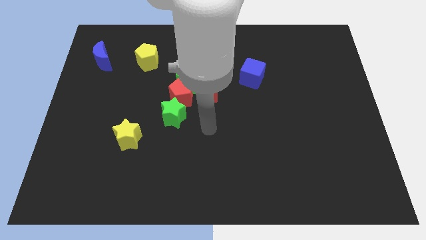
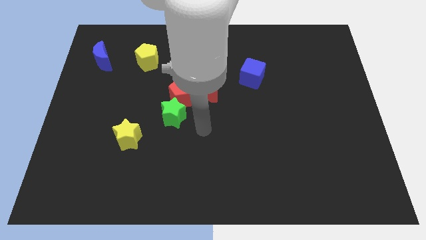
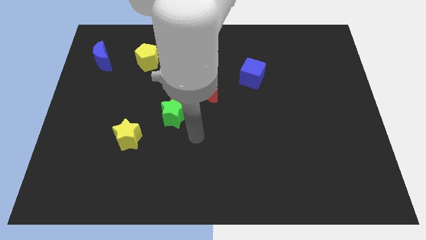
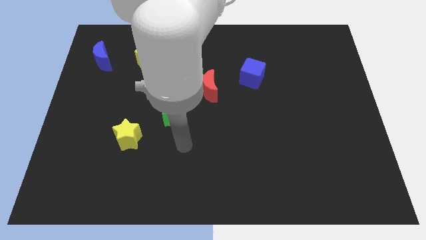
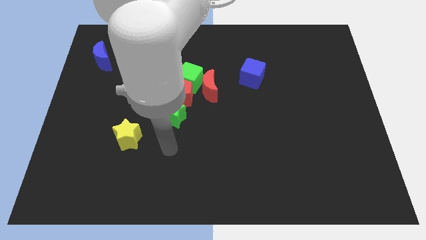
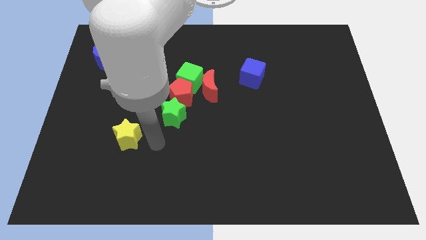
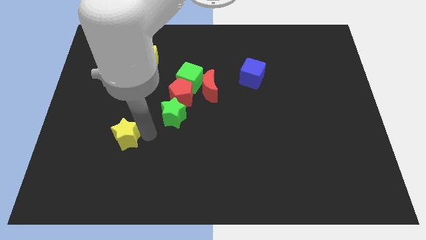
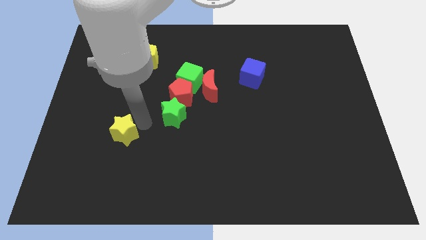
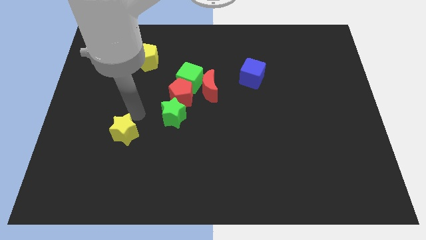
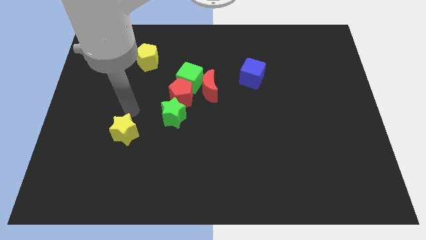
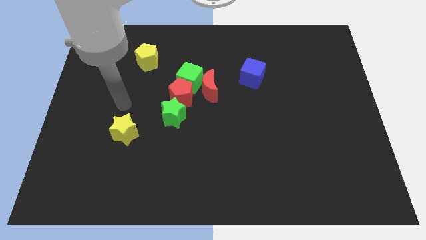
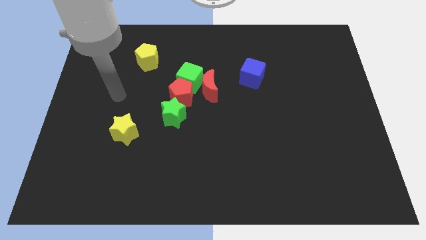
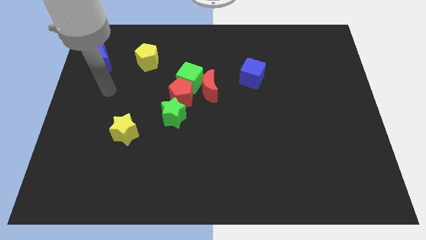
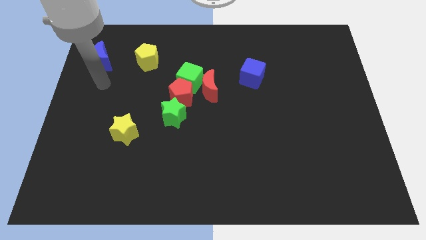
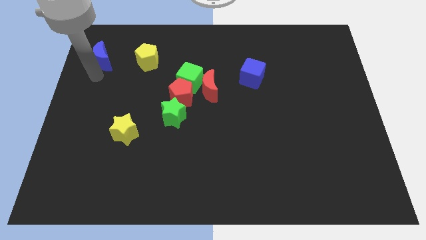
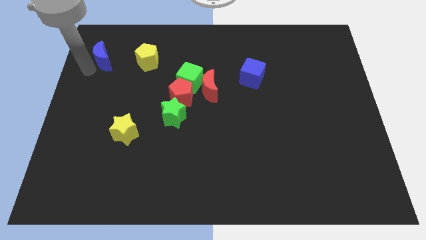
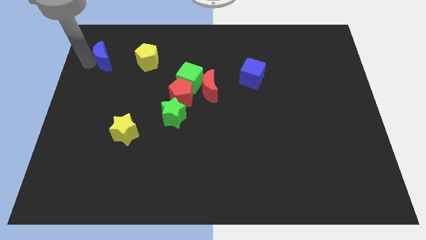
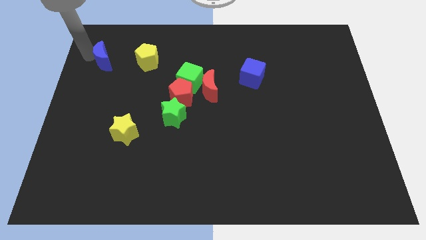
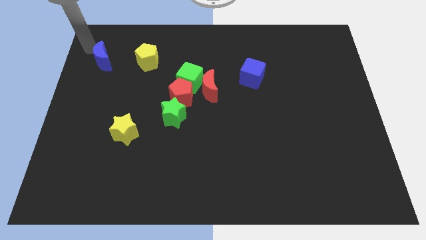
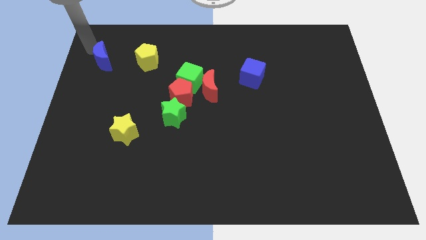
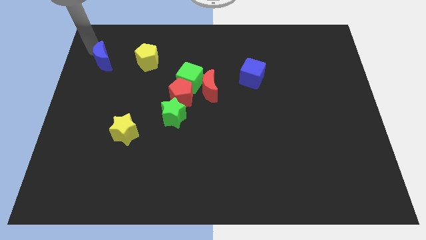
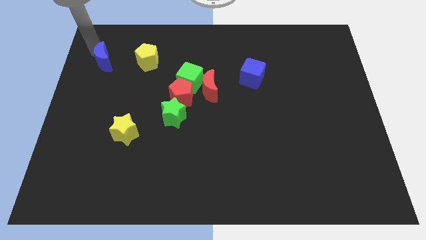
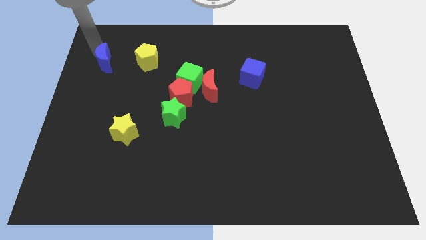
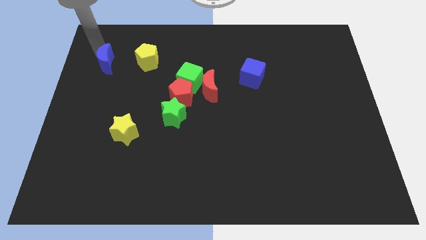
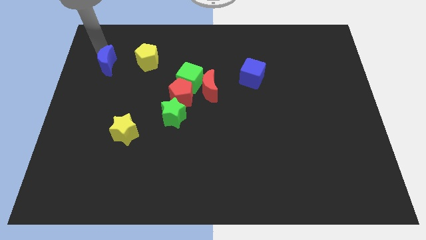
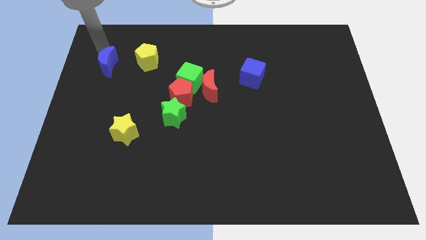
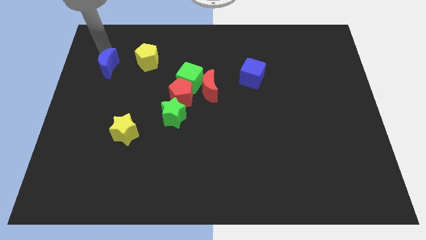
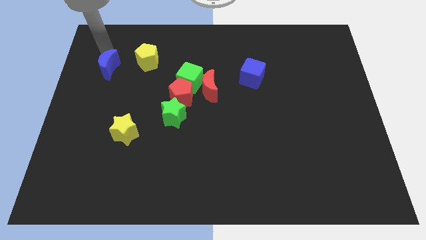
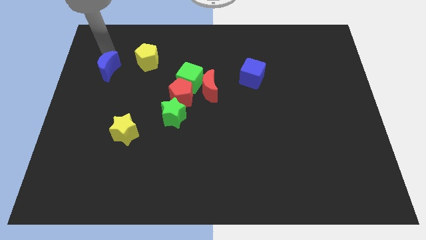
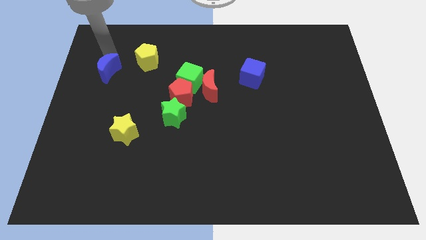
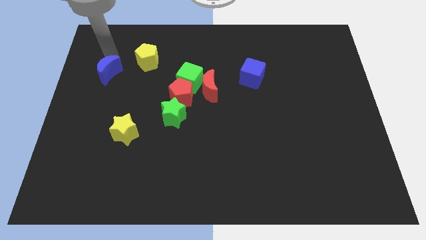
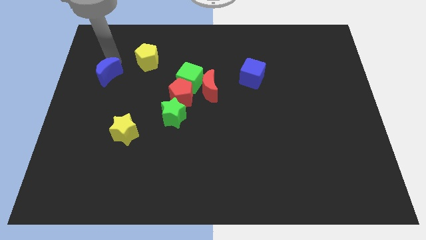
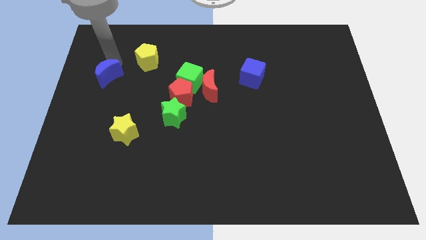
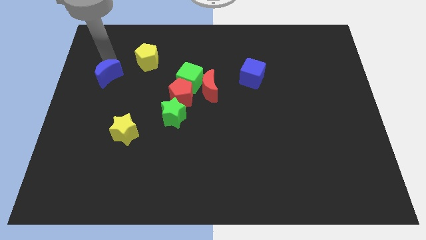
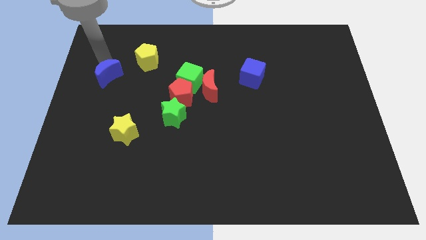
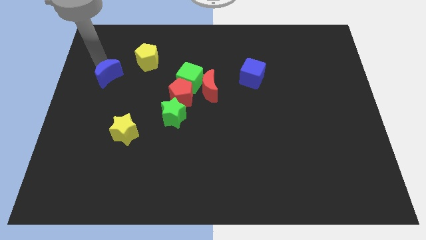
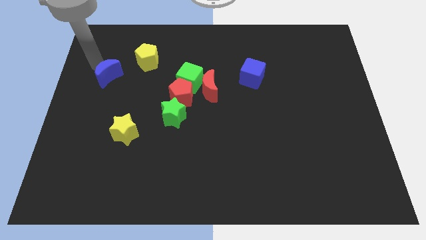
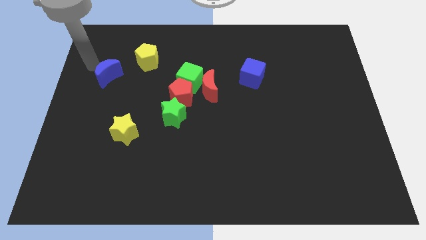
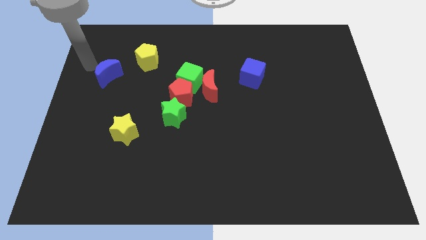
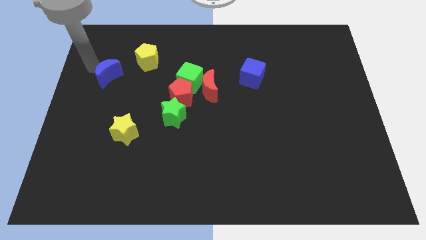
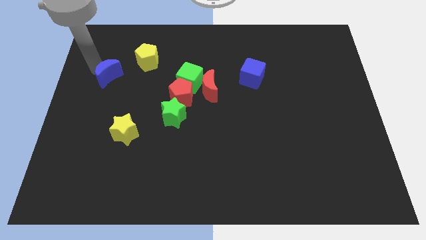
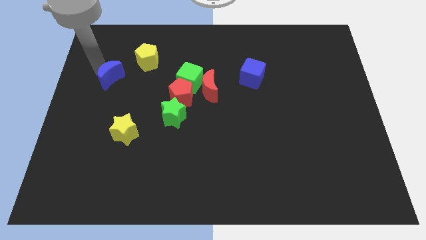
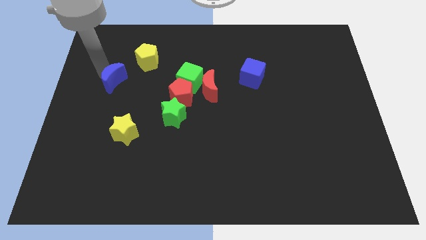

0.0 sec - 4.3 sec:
slide the blue moon a little diagonally down and right

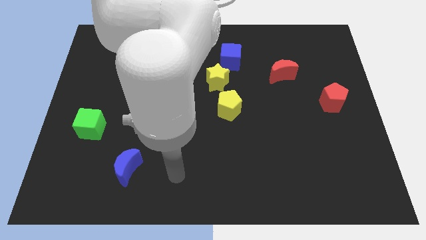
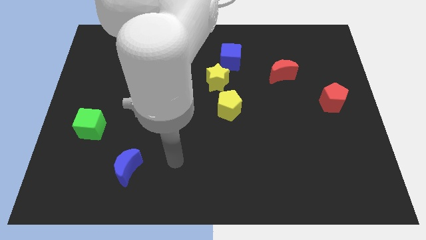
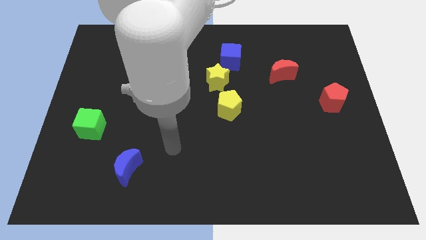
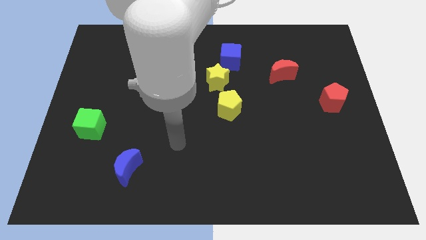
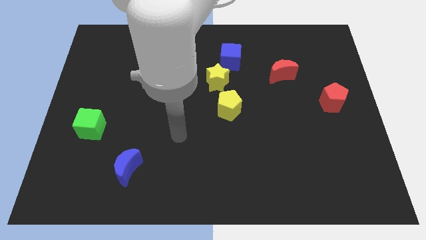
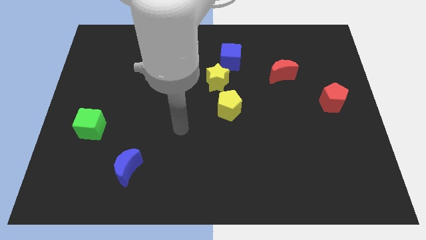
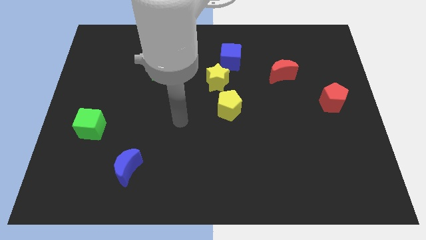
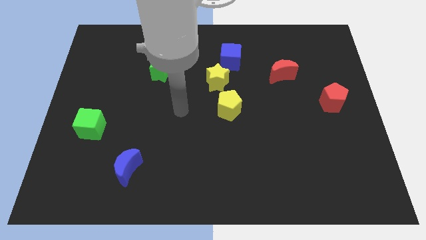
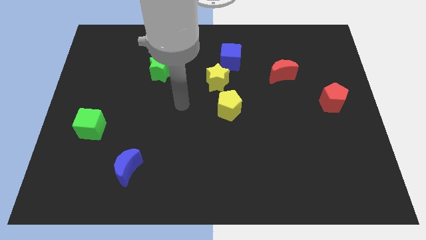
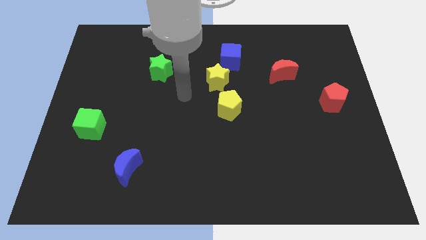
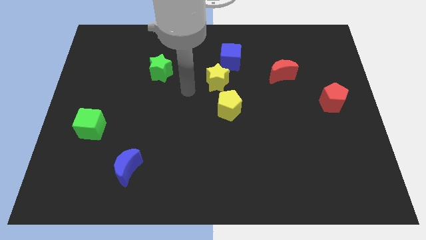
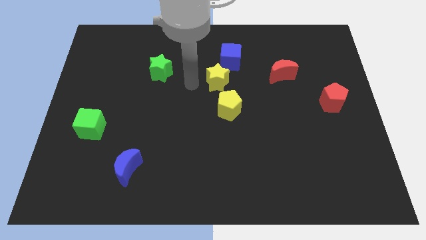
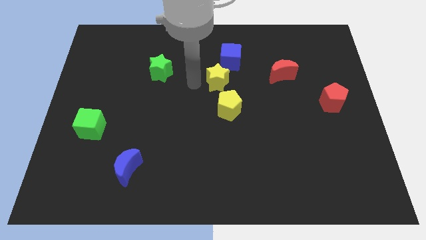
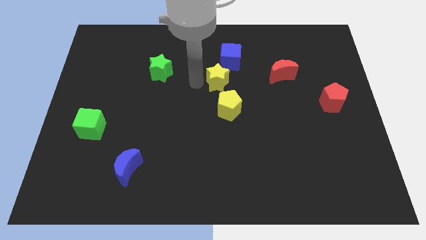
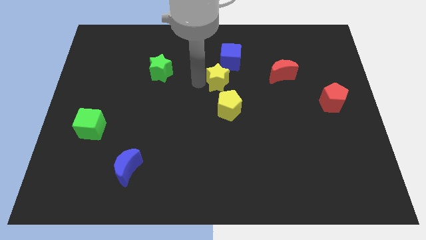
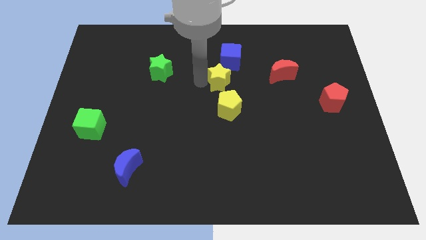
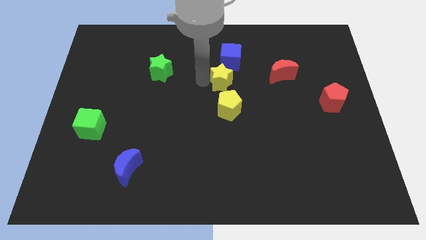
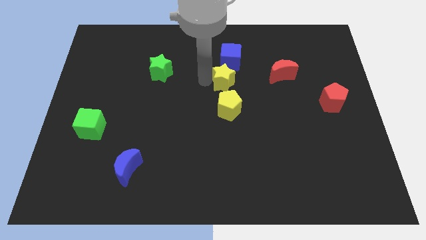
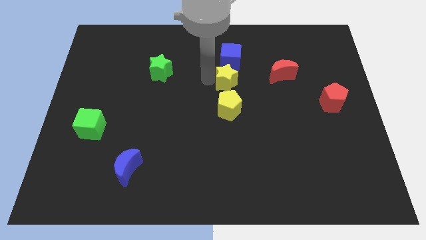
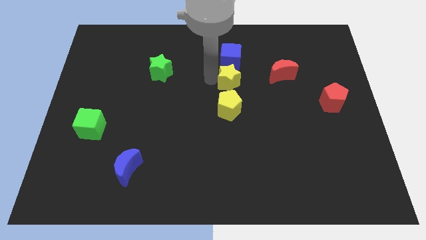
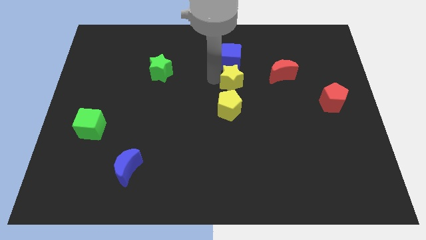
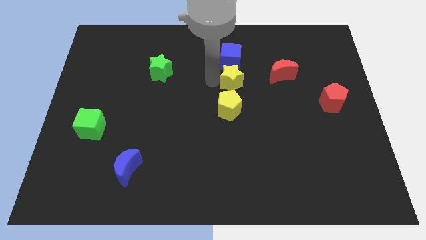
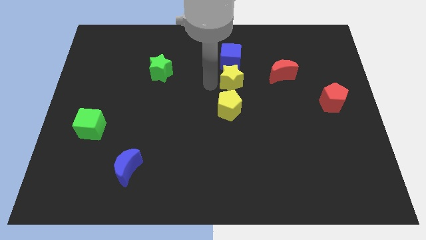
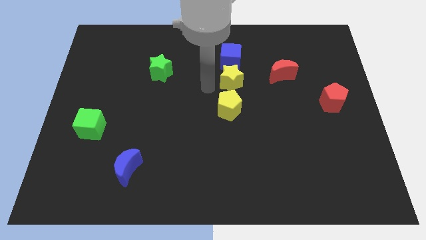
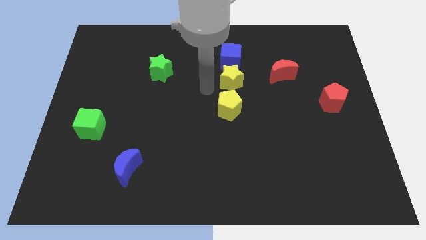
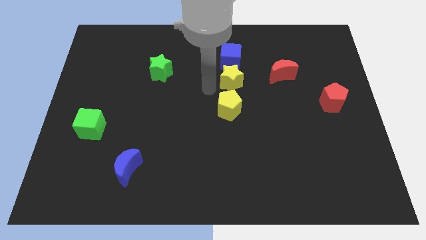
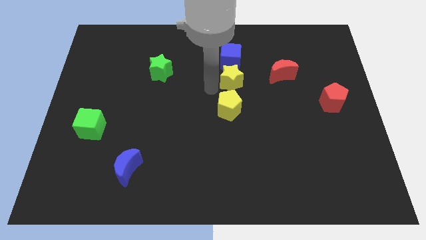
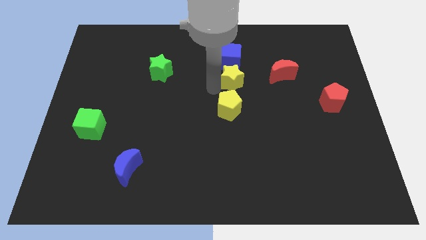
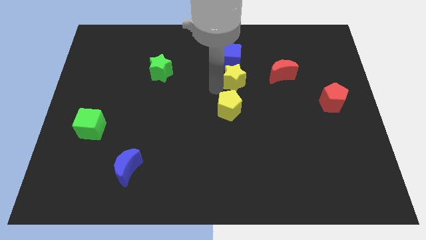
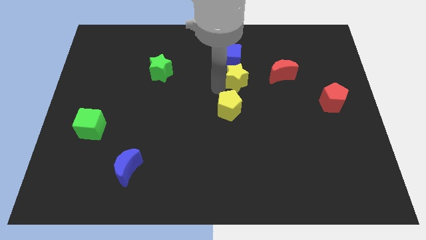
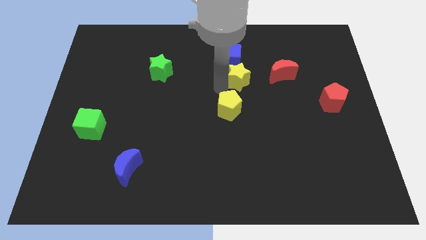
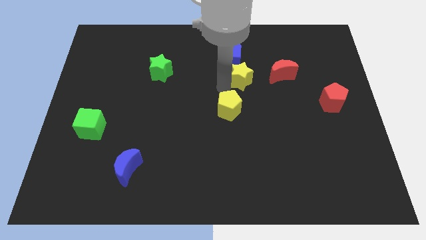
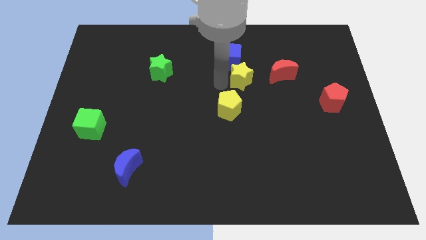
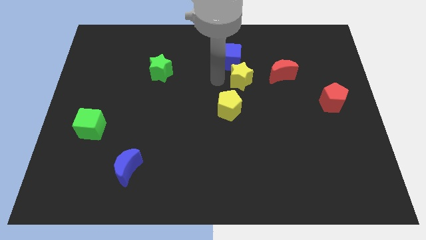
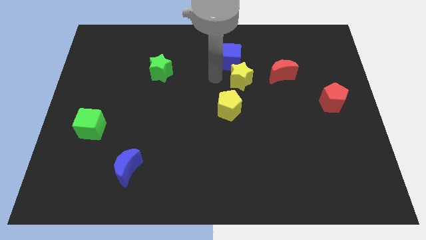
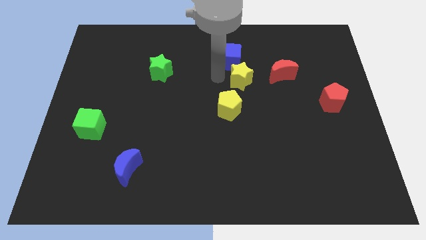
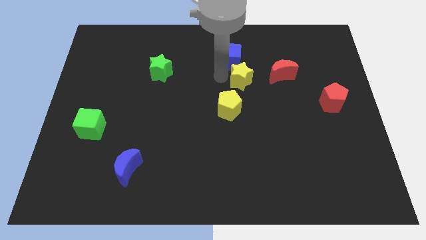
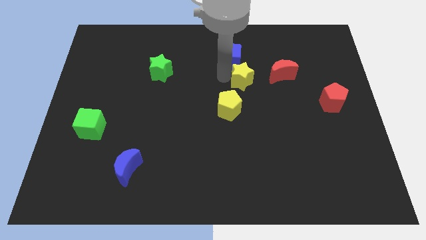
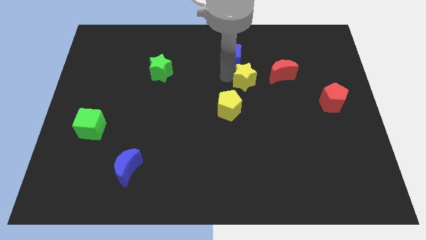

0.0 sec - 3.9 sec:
slightly slide the yellow star right
